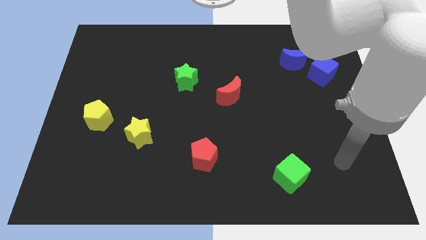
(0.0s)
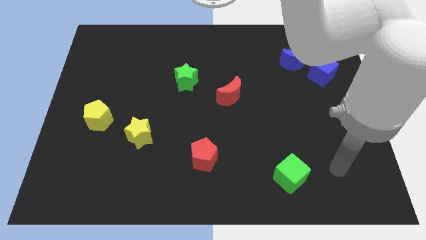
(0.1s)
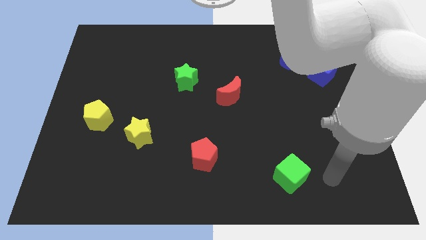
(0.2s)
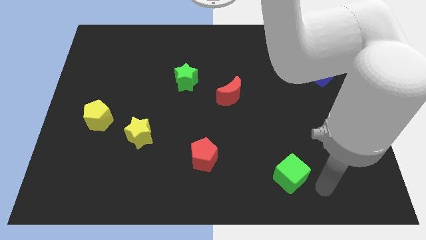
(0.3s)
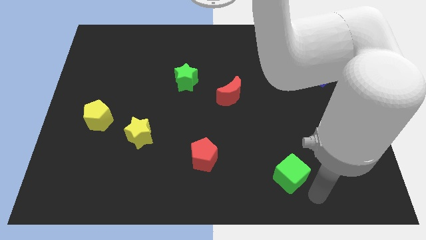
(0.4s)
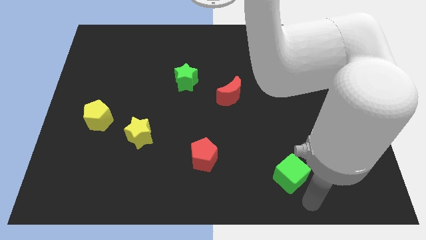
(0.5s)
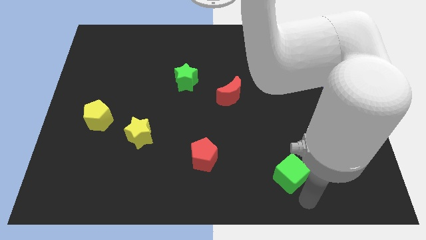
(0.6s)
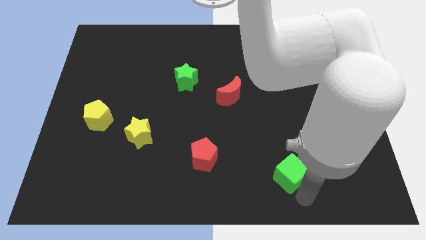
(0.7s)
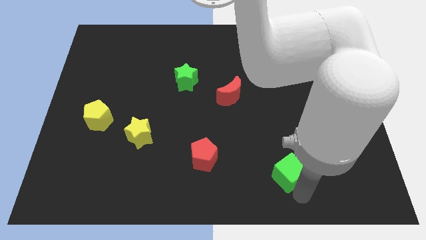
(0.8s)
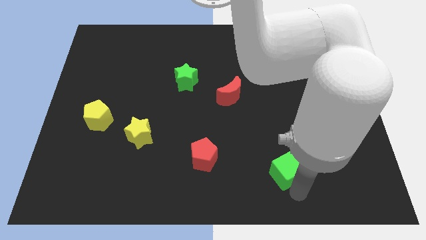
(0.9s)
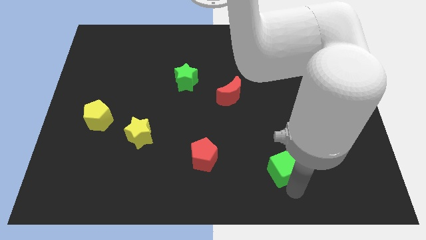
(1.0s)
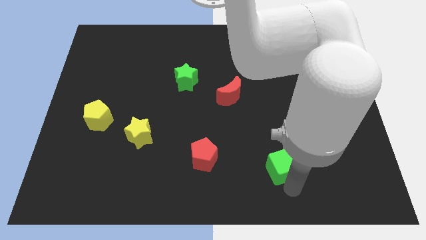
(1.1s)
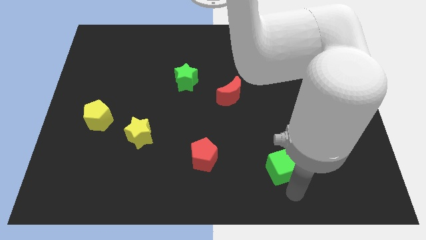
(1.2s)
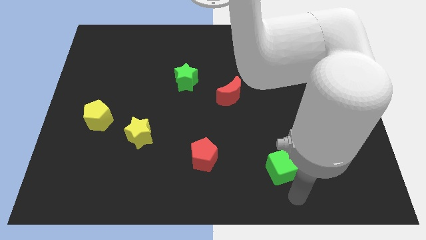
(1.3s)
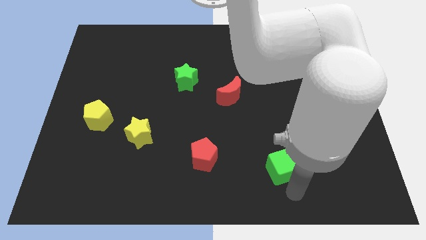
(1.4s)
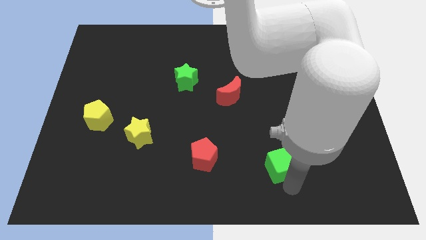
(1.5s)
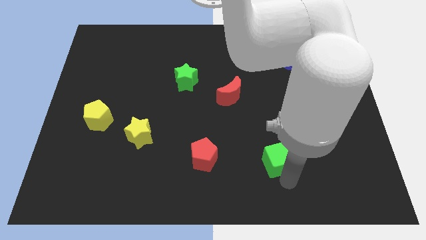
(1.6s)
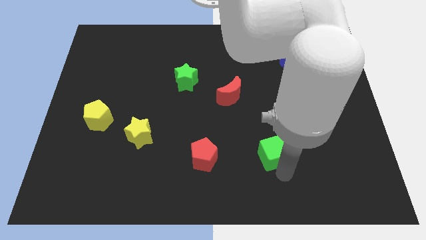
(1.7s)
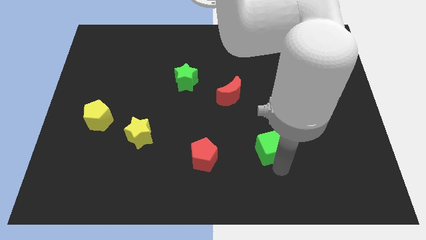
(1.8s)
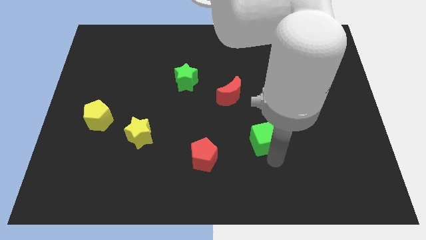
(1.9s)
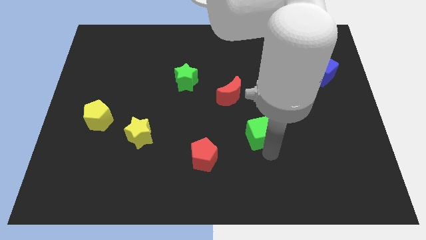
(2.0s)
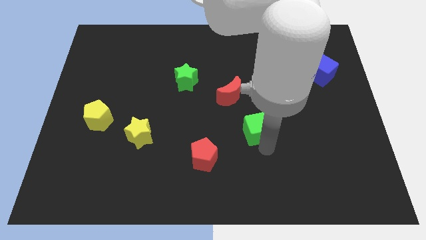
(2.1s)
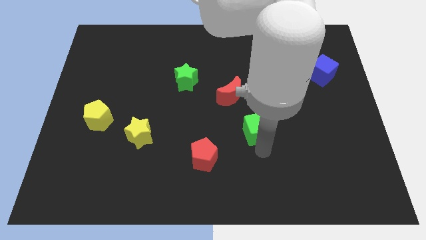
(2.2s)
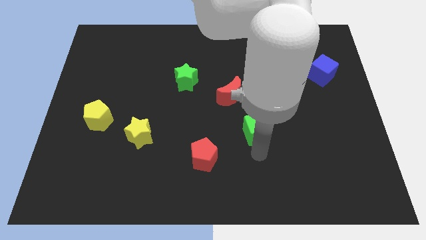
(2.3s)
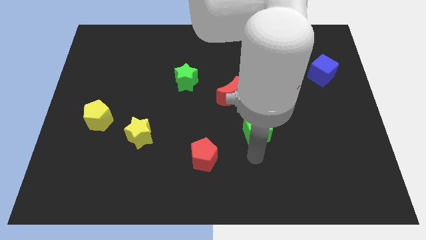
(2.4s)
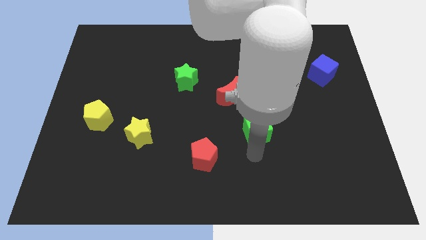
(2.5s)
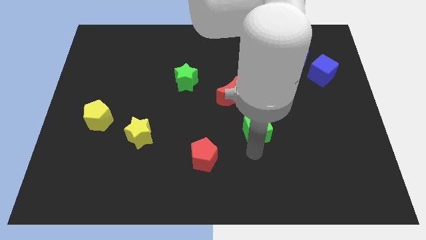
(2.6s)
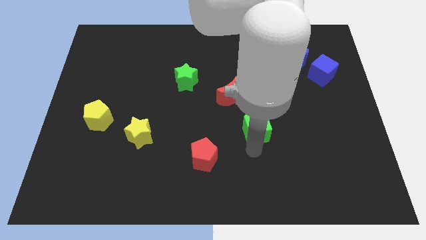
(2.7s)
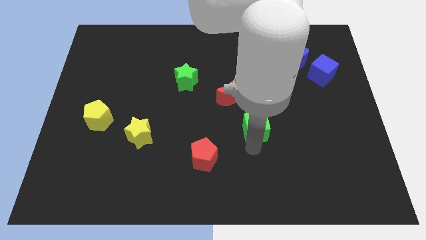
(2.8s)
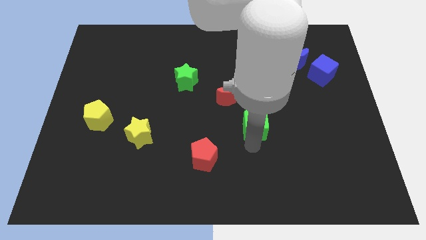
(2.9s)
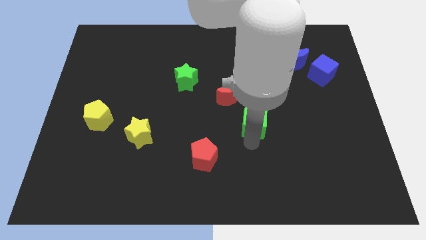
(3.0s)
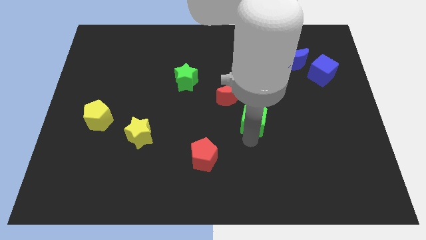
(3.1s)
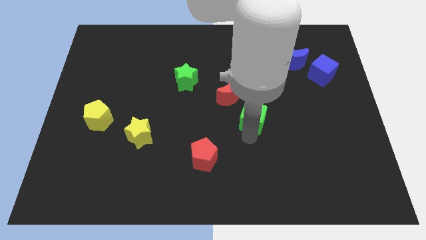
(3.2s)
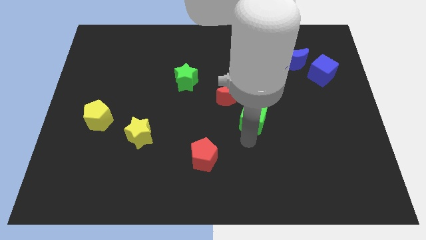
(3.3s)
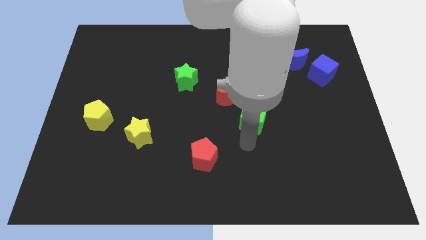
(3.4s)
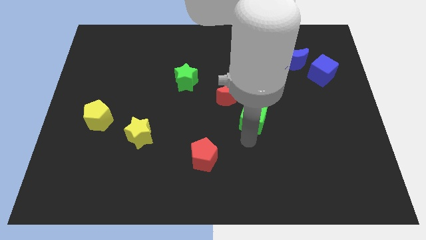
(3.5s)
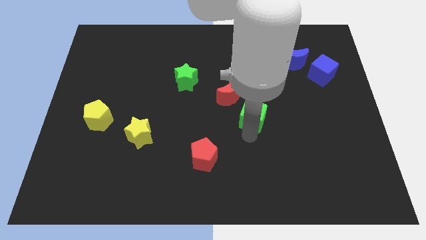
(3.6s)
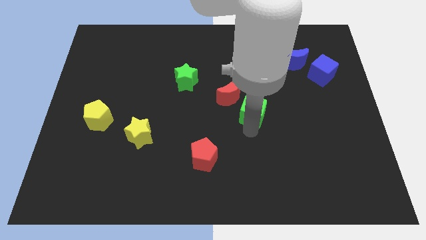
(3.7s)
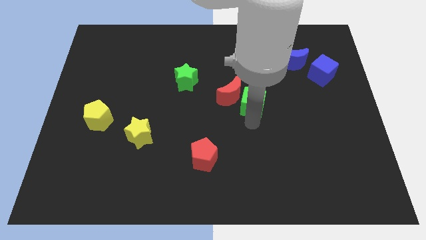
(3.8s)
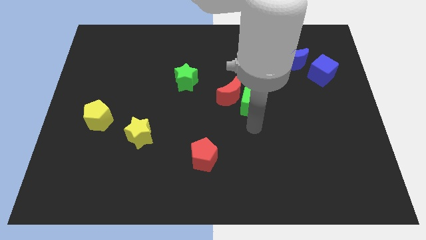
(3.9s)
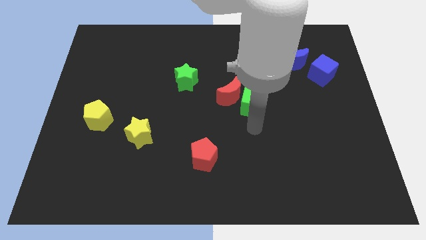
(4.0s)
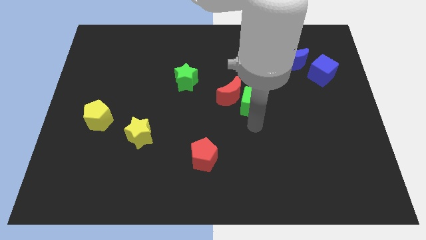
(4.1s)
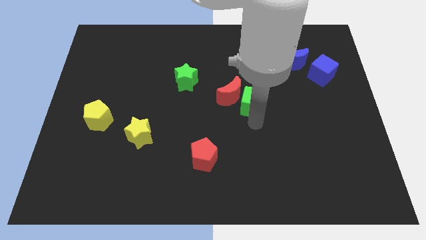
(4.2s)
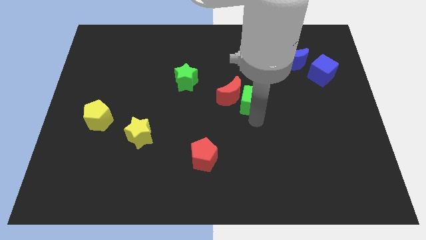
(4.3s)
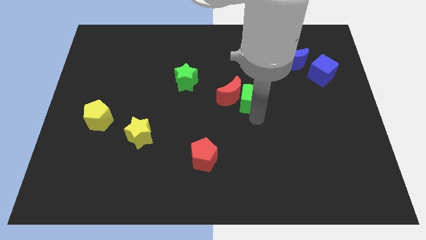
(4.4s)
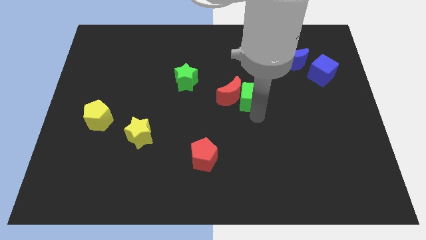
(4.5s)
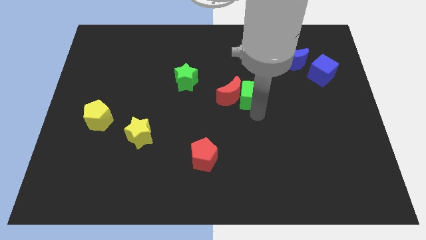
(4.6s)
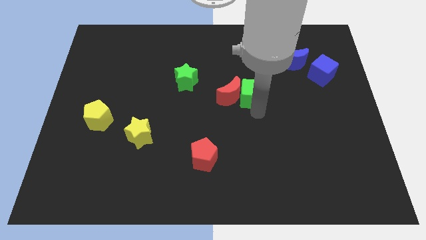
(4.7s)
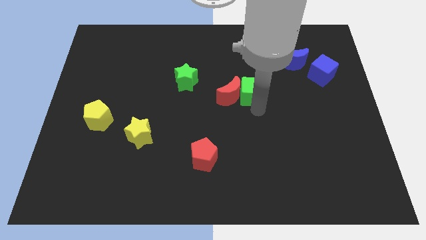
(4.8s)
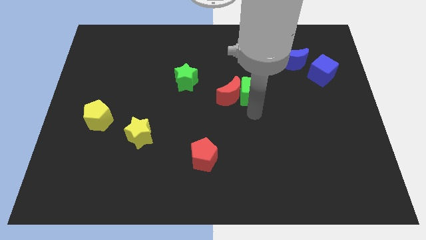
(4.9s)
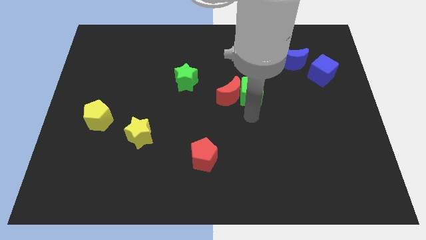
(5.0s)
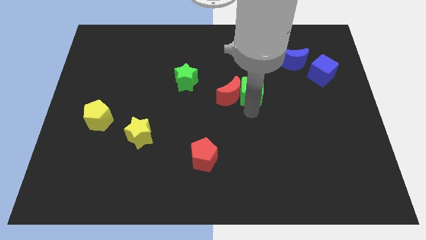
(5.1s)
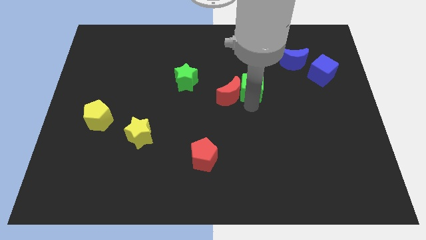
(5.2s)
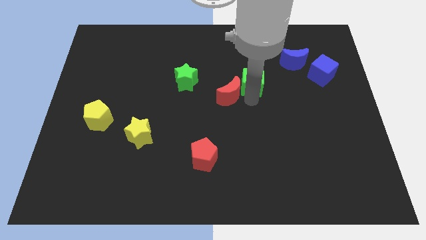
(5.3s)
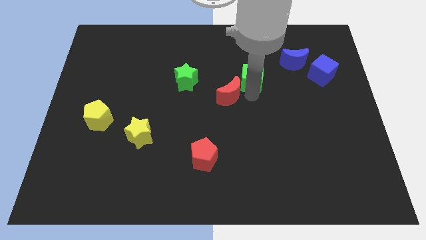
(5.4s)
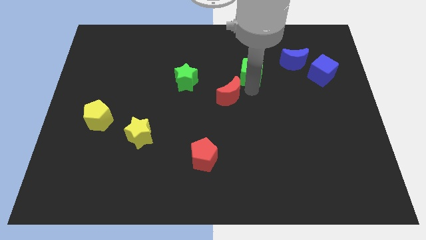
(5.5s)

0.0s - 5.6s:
move the green cube left of the blue moon

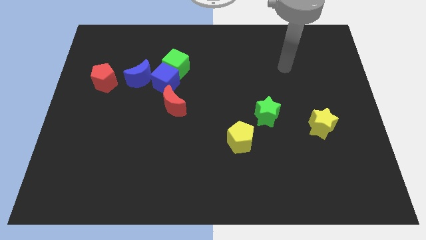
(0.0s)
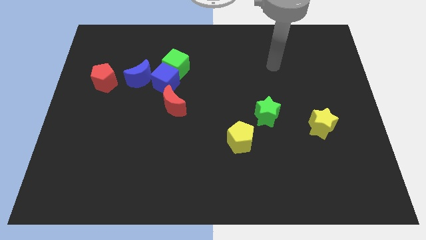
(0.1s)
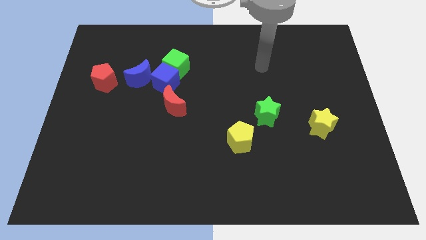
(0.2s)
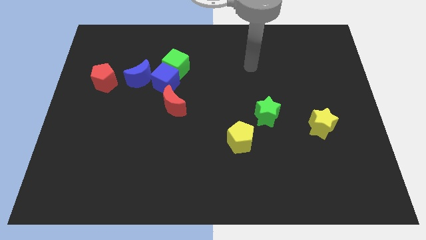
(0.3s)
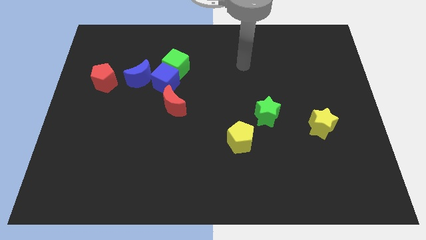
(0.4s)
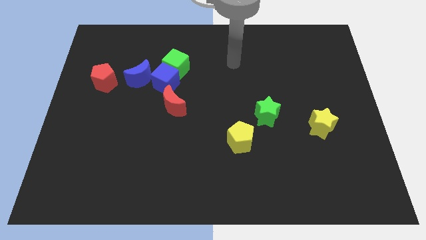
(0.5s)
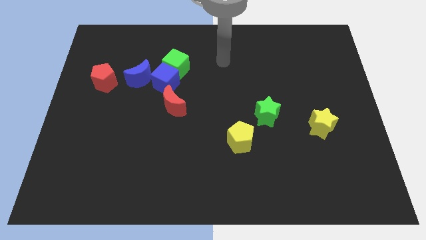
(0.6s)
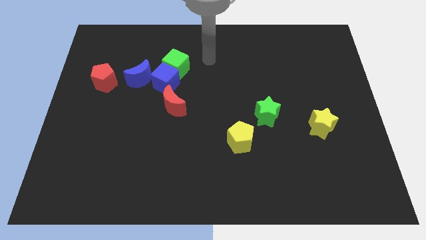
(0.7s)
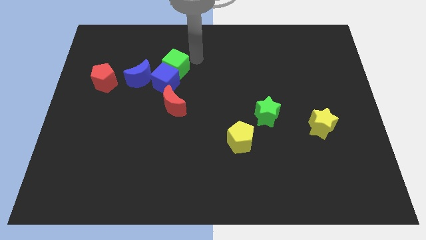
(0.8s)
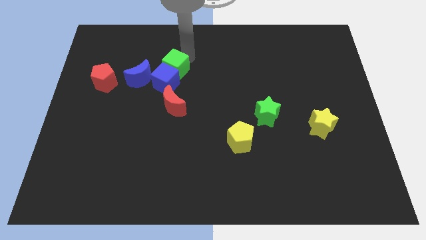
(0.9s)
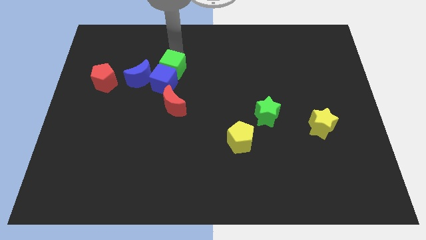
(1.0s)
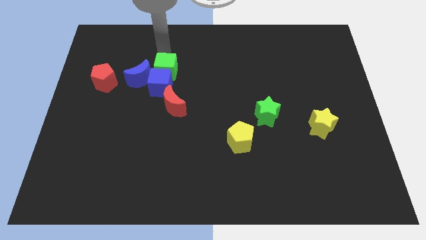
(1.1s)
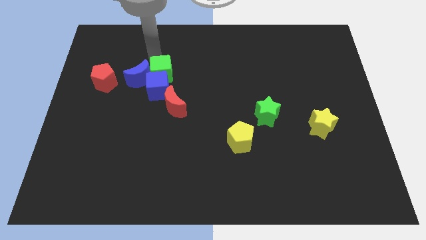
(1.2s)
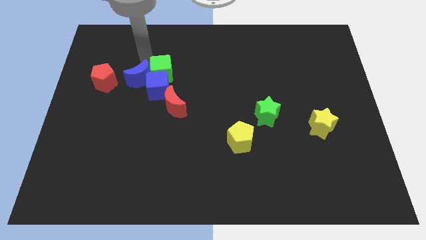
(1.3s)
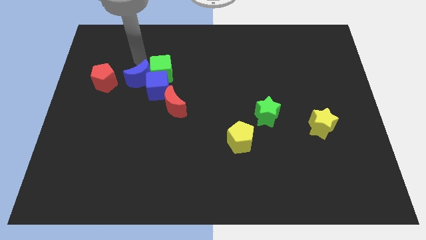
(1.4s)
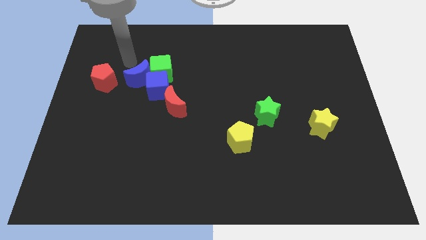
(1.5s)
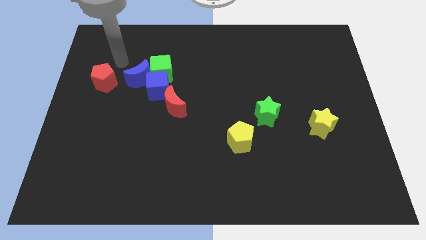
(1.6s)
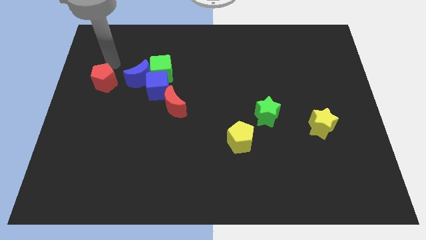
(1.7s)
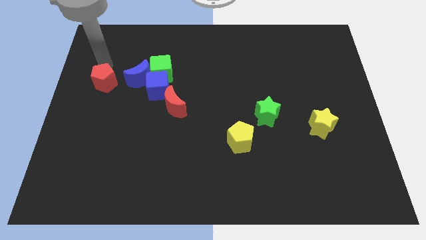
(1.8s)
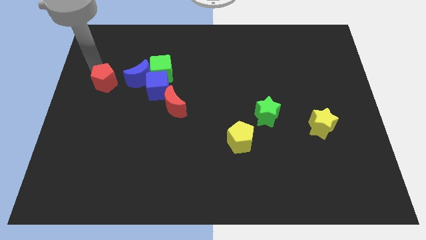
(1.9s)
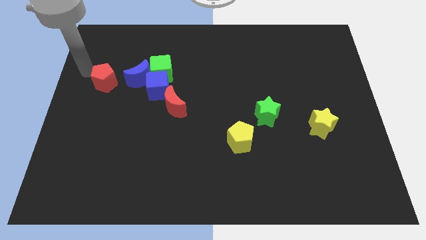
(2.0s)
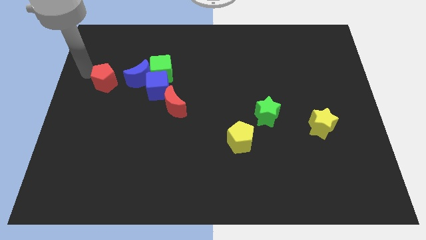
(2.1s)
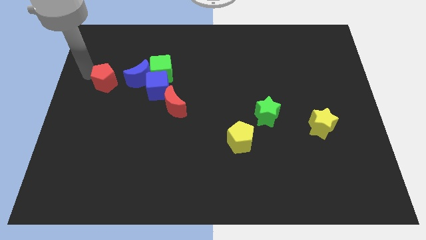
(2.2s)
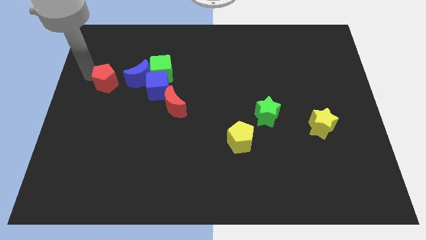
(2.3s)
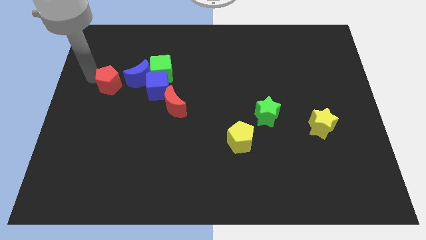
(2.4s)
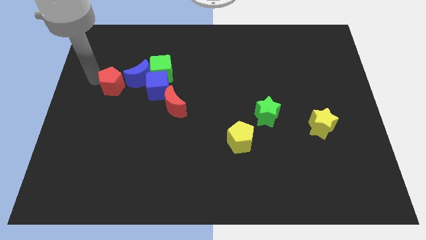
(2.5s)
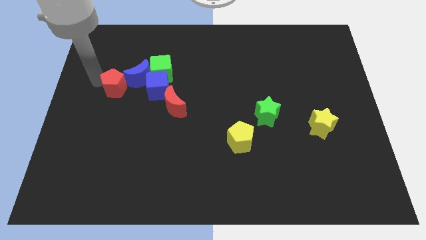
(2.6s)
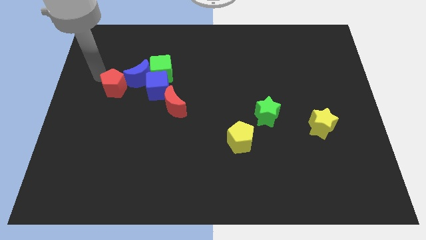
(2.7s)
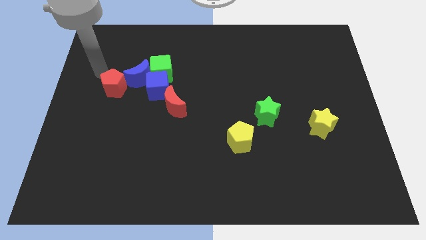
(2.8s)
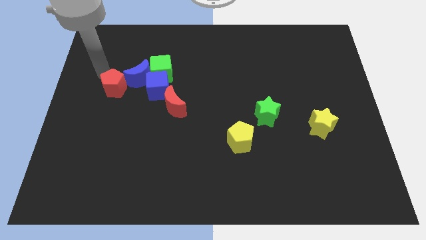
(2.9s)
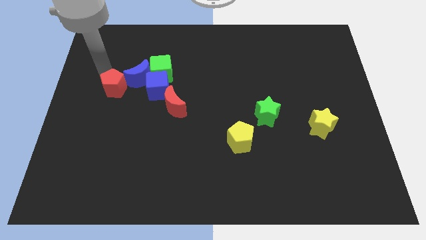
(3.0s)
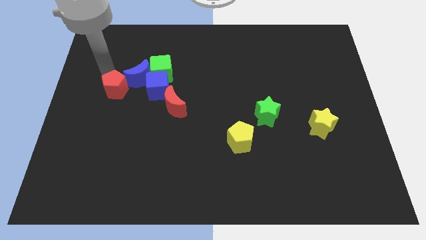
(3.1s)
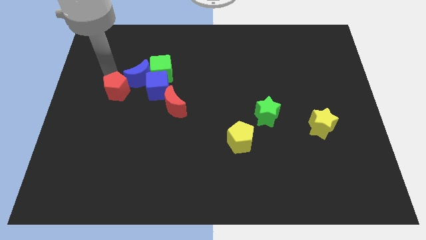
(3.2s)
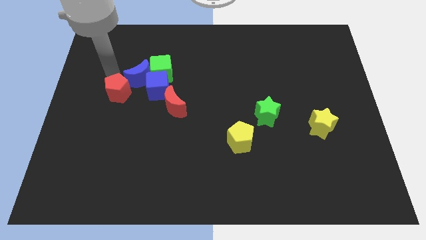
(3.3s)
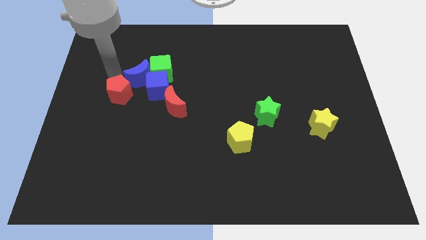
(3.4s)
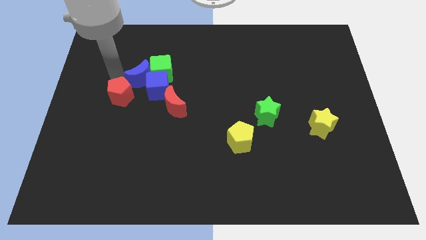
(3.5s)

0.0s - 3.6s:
slide the red pentagon to the bottom left of the blue cube
